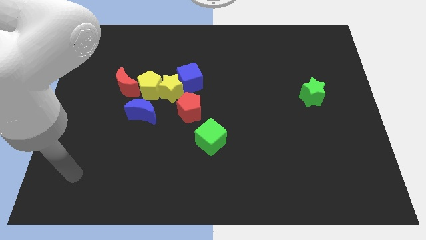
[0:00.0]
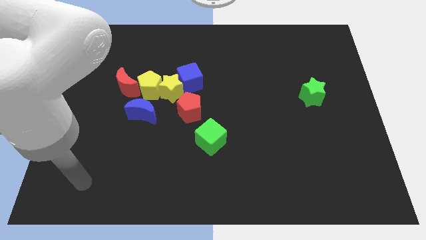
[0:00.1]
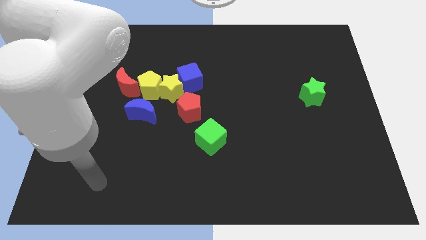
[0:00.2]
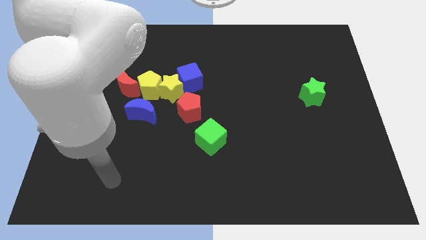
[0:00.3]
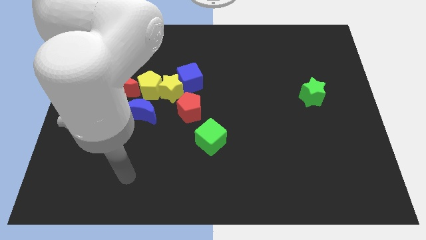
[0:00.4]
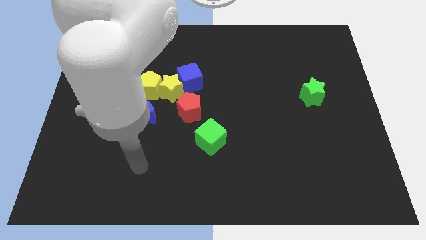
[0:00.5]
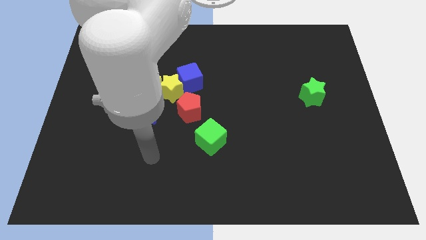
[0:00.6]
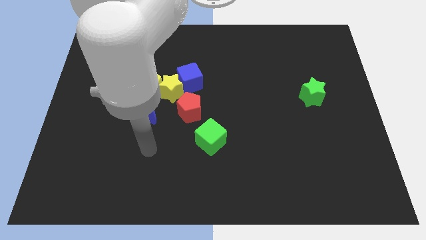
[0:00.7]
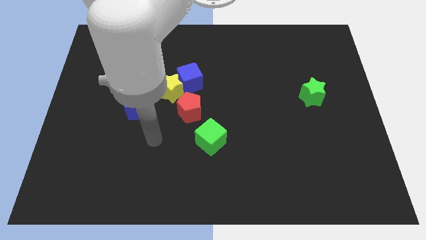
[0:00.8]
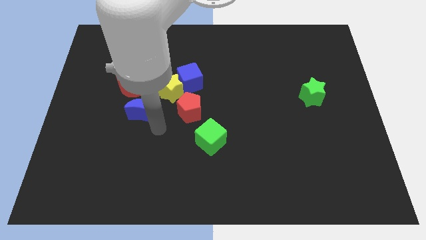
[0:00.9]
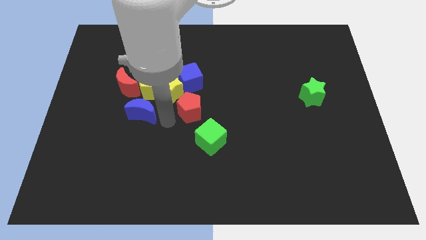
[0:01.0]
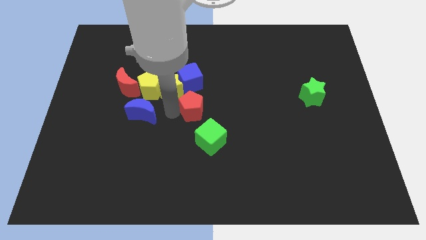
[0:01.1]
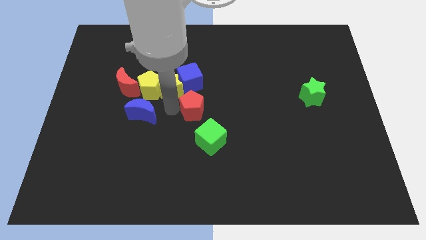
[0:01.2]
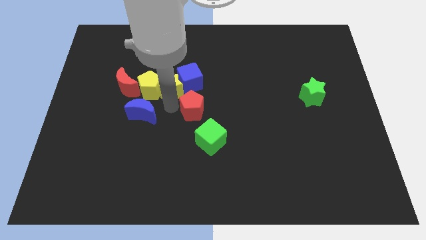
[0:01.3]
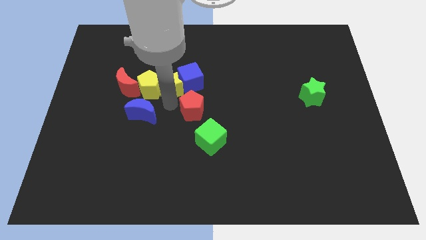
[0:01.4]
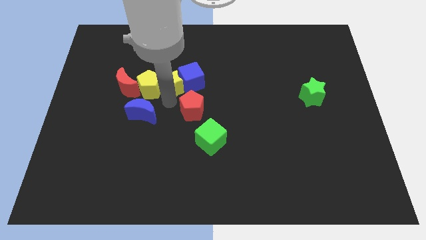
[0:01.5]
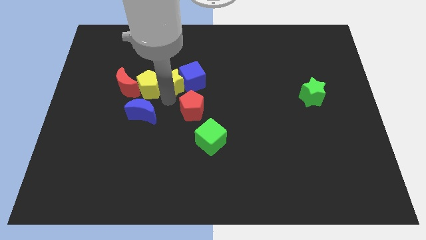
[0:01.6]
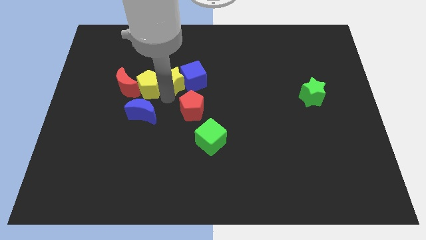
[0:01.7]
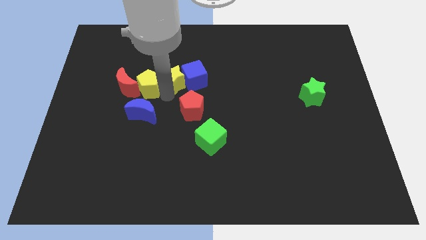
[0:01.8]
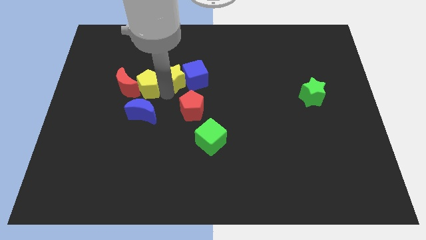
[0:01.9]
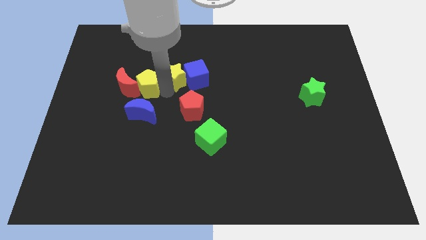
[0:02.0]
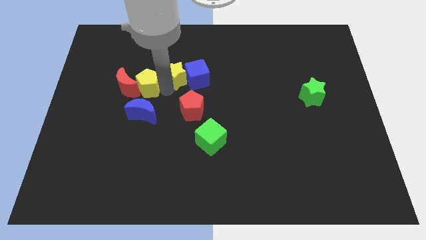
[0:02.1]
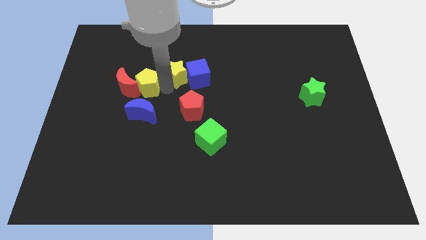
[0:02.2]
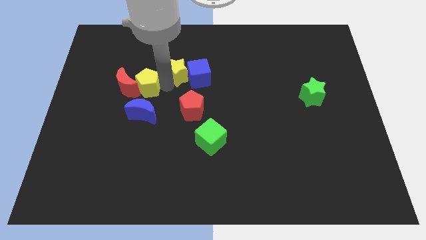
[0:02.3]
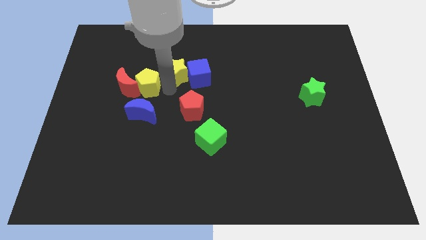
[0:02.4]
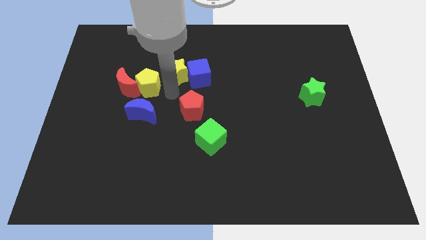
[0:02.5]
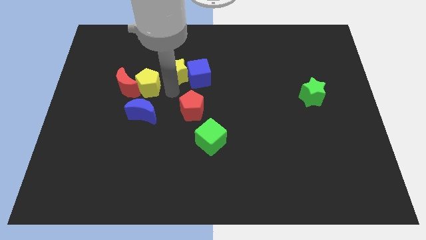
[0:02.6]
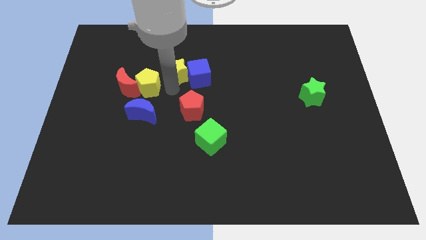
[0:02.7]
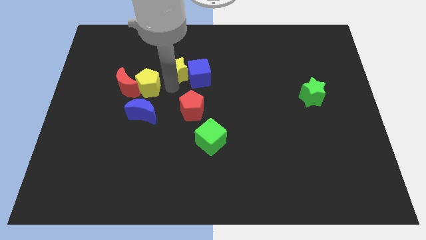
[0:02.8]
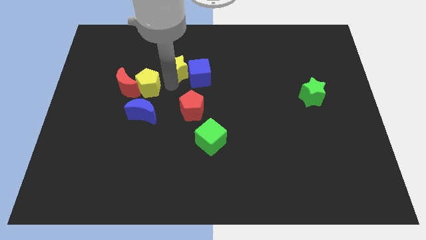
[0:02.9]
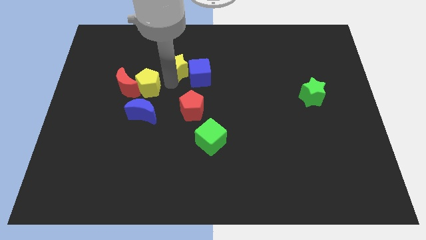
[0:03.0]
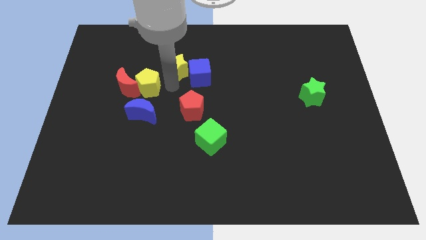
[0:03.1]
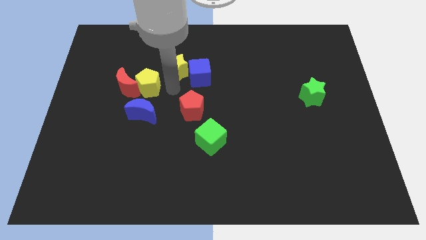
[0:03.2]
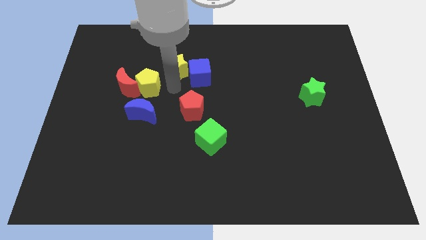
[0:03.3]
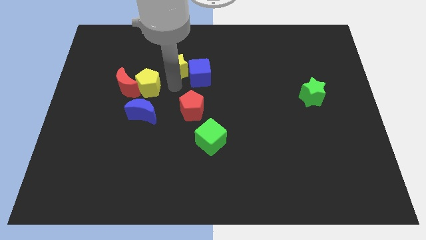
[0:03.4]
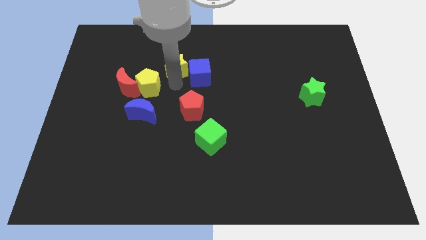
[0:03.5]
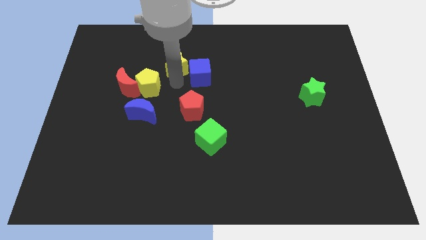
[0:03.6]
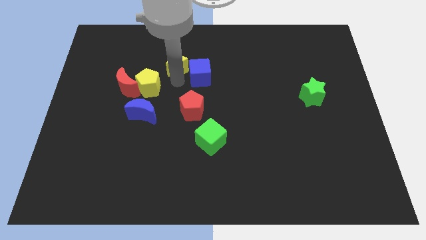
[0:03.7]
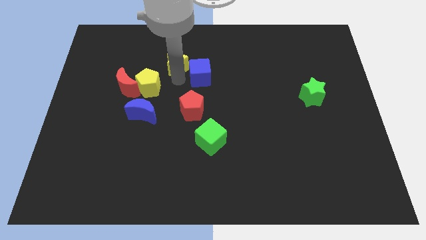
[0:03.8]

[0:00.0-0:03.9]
pull the yellow star apart from the group

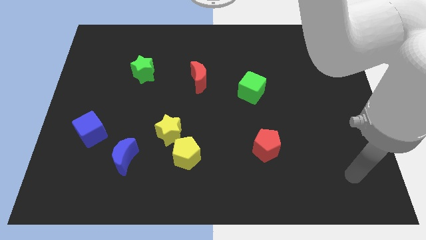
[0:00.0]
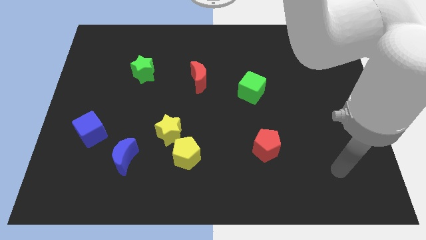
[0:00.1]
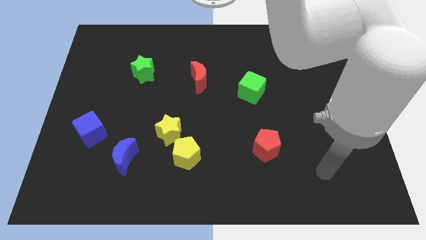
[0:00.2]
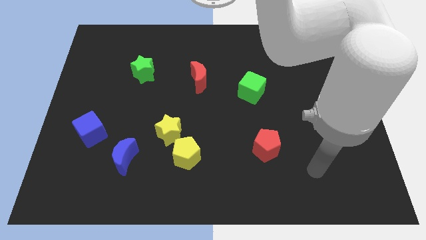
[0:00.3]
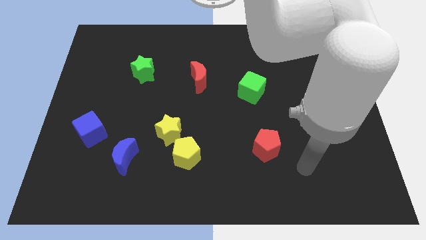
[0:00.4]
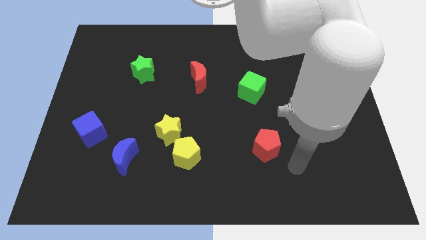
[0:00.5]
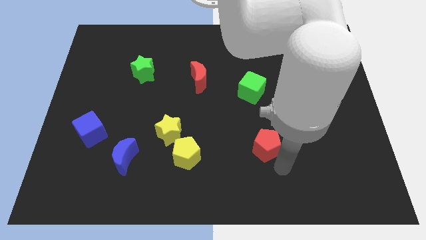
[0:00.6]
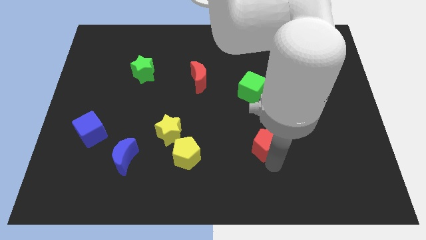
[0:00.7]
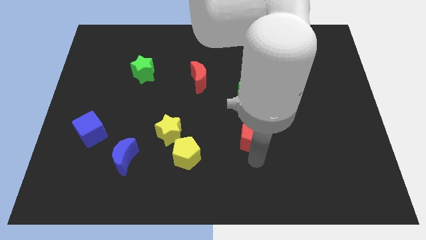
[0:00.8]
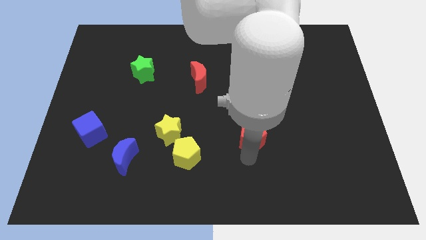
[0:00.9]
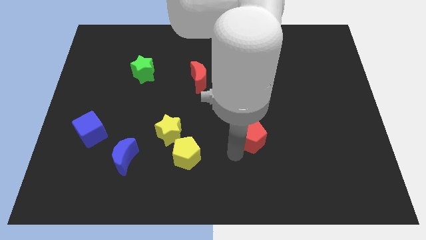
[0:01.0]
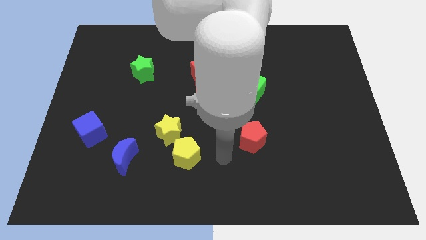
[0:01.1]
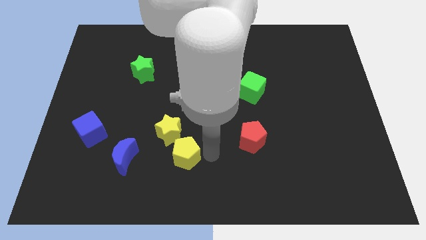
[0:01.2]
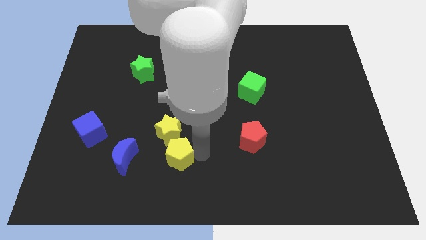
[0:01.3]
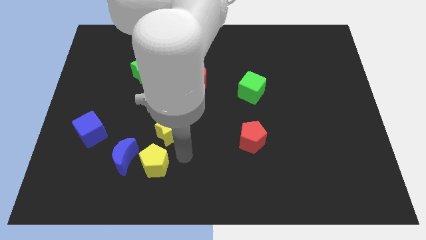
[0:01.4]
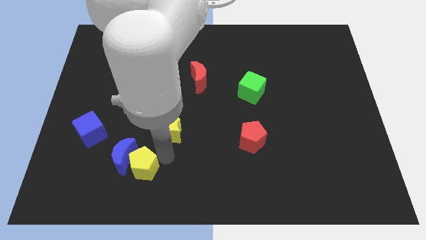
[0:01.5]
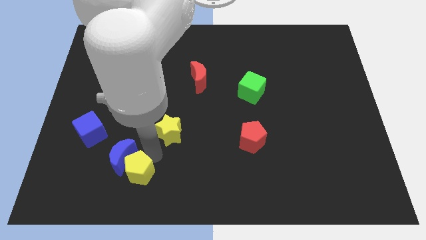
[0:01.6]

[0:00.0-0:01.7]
pull the yellow star apart from the yellow pentagon

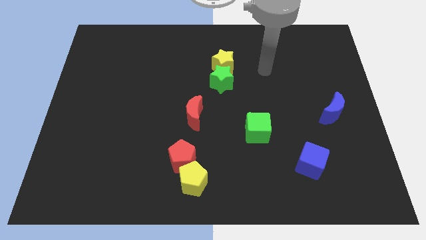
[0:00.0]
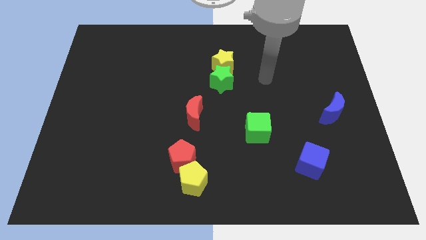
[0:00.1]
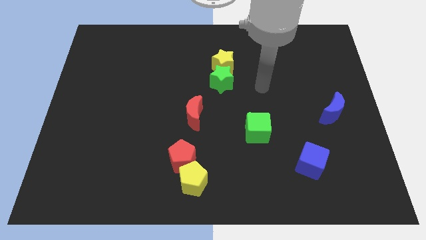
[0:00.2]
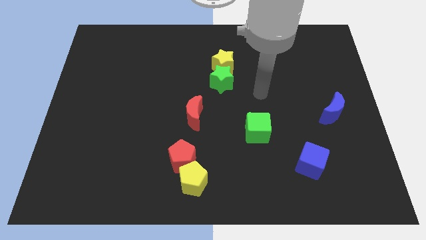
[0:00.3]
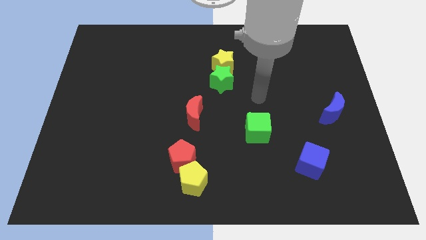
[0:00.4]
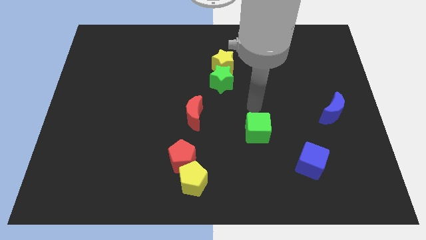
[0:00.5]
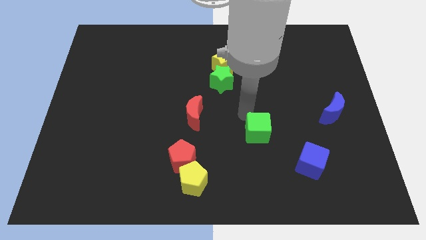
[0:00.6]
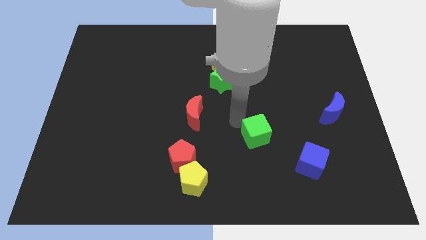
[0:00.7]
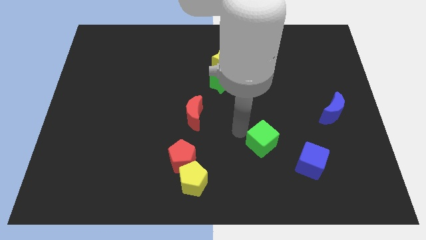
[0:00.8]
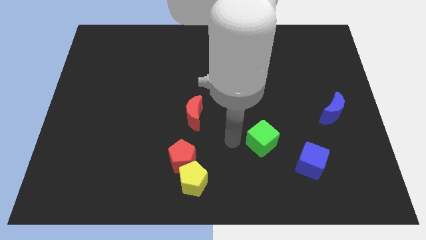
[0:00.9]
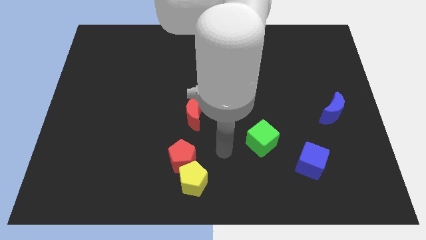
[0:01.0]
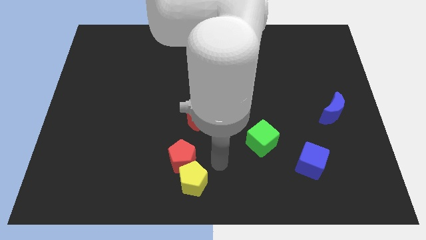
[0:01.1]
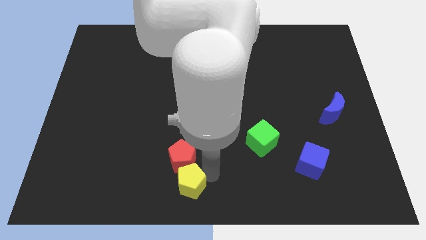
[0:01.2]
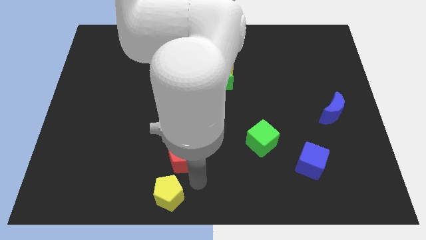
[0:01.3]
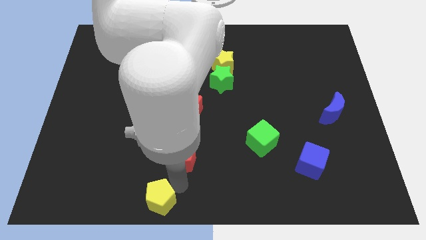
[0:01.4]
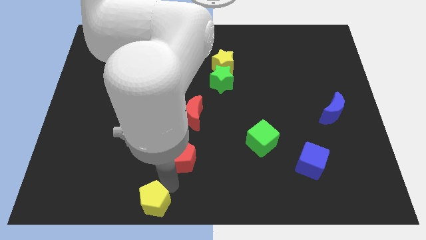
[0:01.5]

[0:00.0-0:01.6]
pull the red pentagon apart from the yellow pentagon

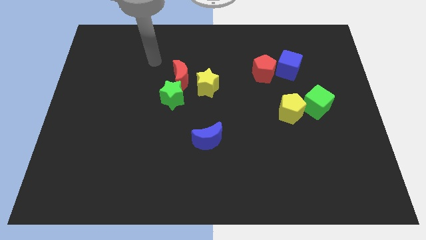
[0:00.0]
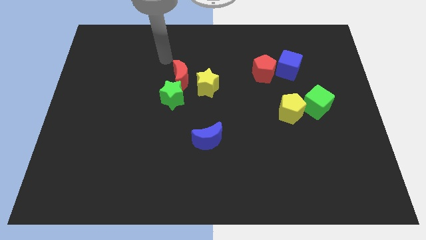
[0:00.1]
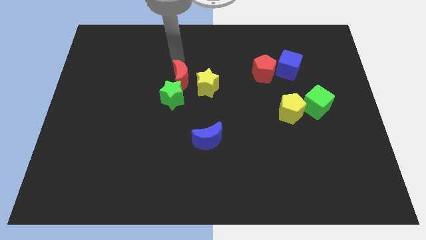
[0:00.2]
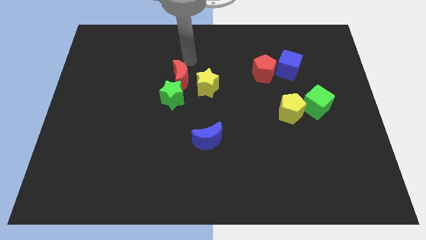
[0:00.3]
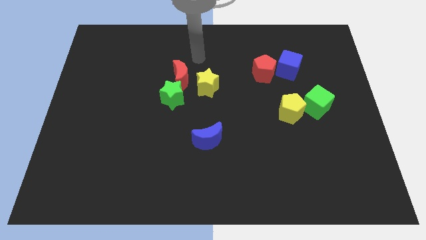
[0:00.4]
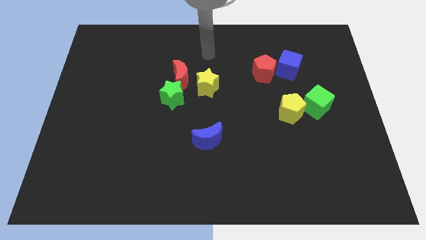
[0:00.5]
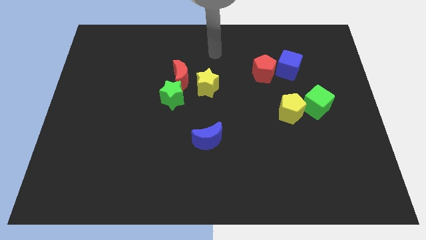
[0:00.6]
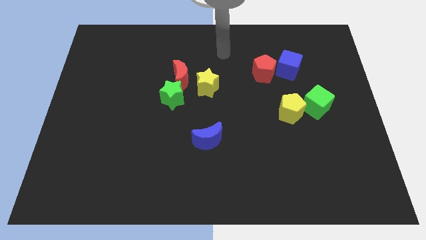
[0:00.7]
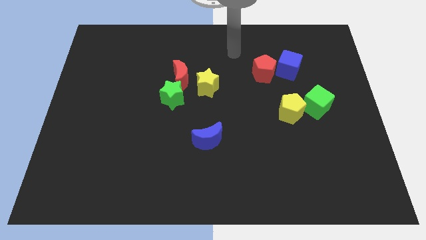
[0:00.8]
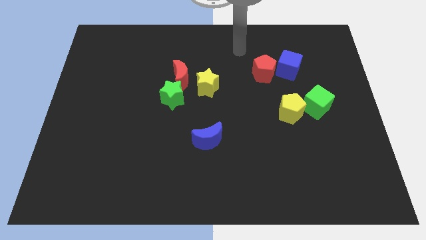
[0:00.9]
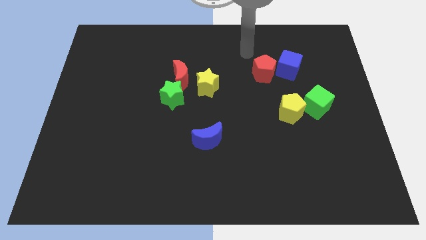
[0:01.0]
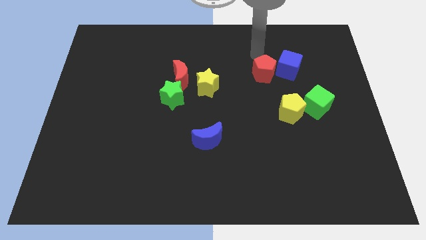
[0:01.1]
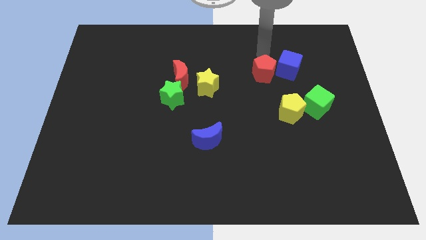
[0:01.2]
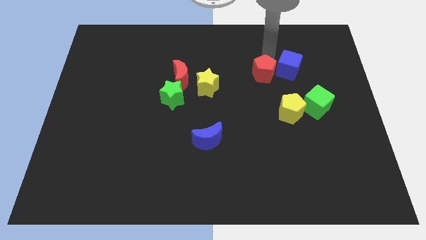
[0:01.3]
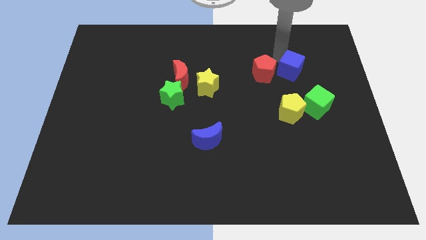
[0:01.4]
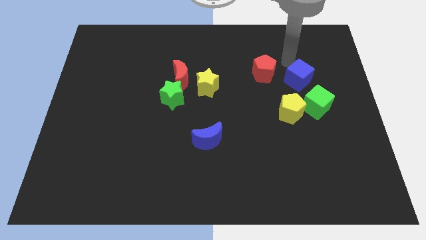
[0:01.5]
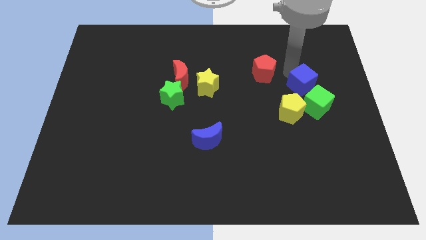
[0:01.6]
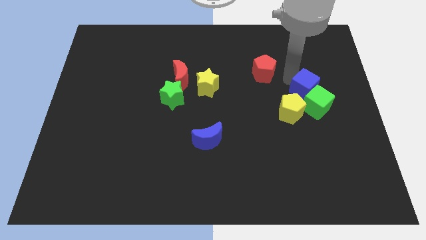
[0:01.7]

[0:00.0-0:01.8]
pull the red pentagon apart from the blue cube

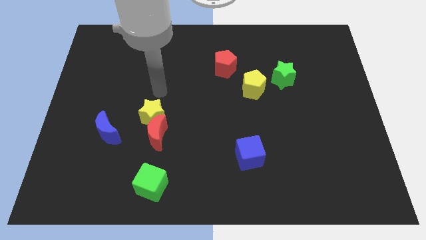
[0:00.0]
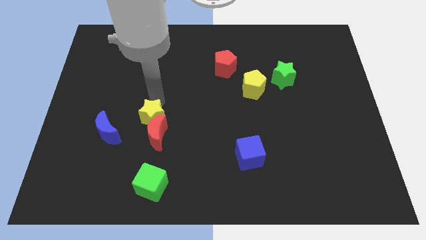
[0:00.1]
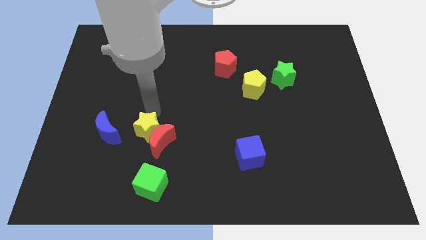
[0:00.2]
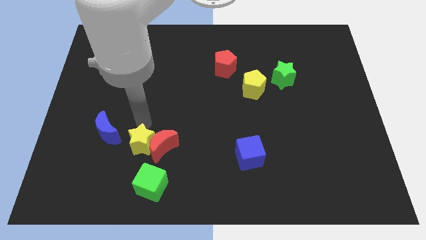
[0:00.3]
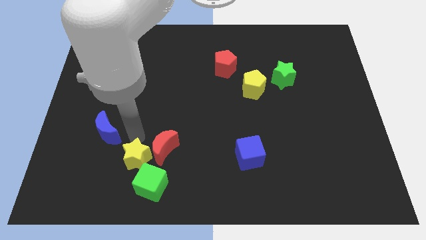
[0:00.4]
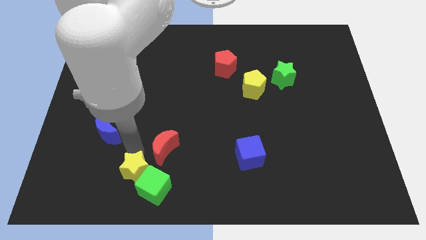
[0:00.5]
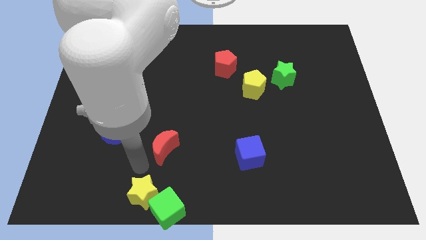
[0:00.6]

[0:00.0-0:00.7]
move the red moon away from the yellow star
